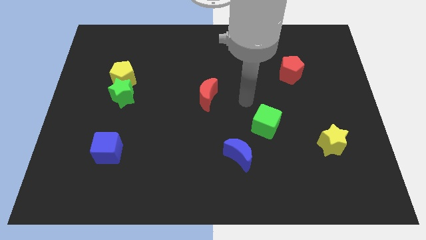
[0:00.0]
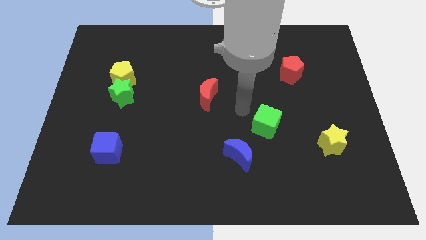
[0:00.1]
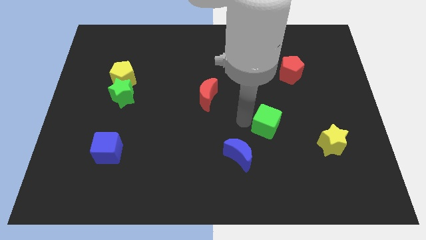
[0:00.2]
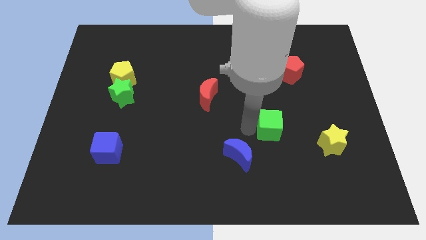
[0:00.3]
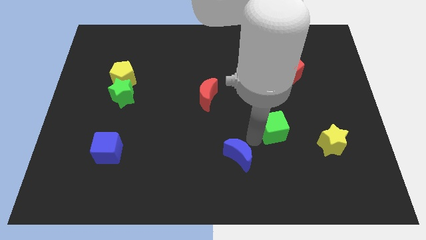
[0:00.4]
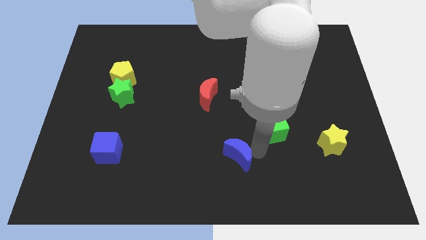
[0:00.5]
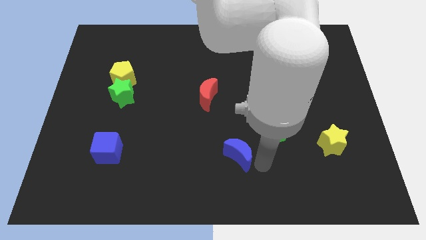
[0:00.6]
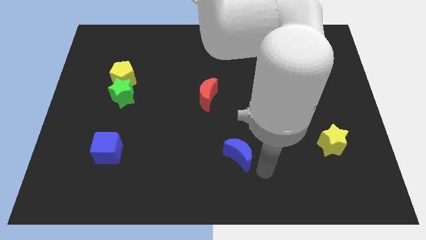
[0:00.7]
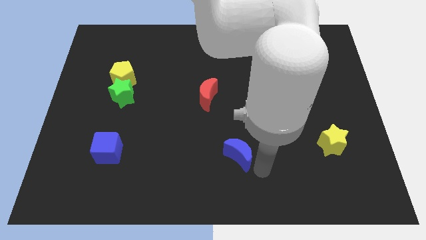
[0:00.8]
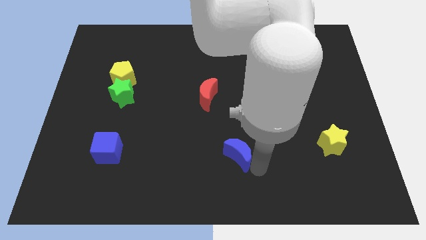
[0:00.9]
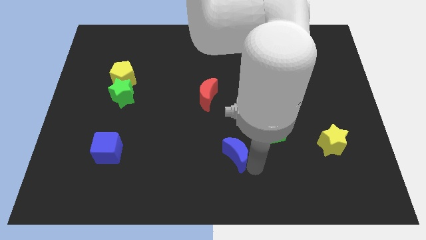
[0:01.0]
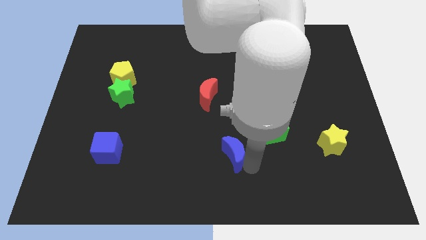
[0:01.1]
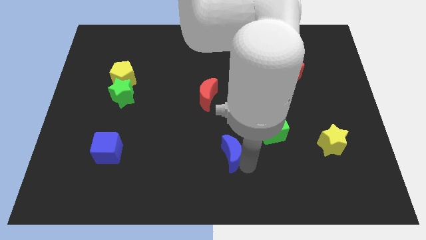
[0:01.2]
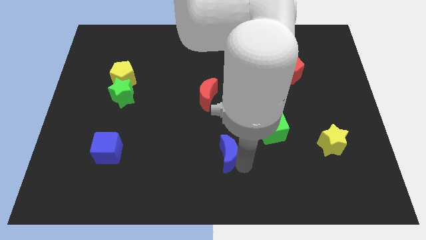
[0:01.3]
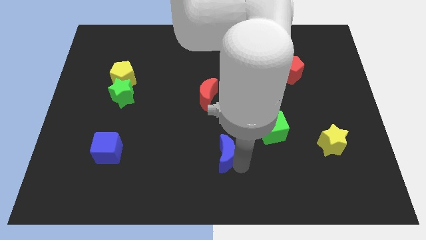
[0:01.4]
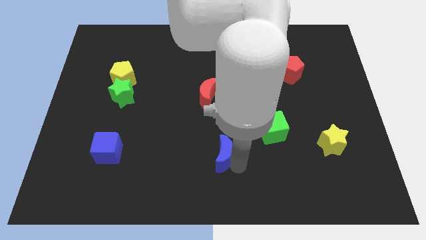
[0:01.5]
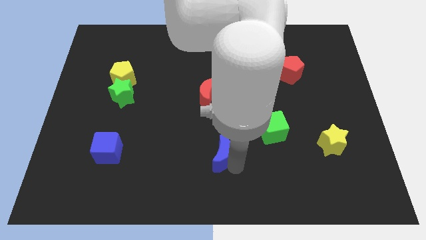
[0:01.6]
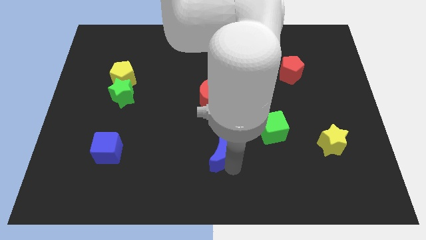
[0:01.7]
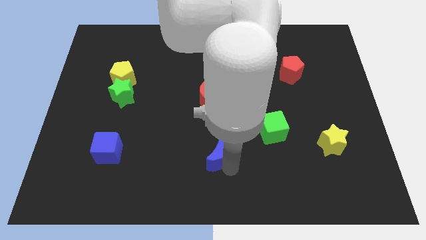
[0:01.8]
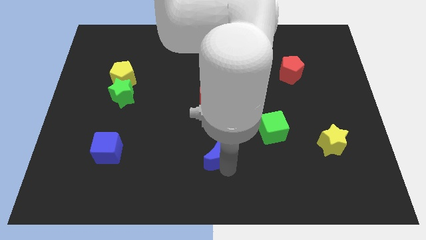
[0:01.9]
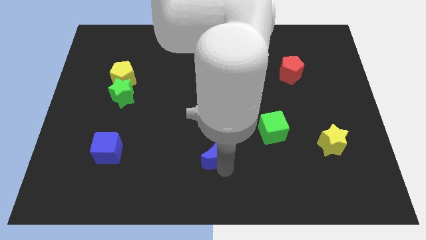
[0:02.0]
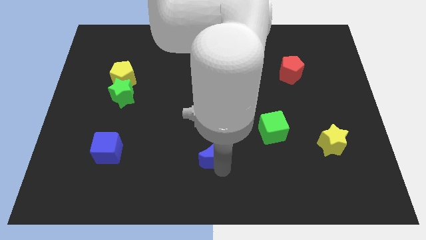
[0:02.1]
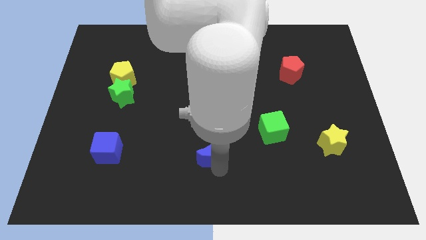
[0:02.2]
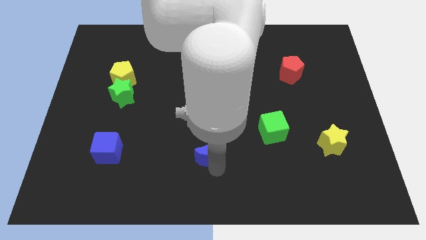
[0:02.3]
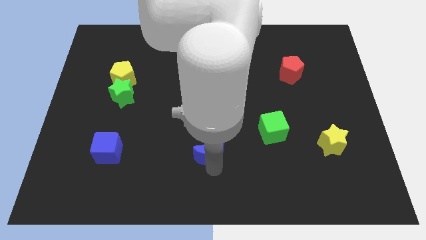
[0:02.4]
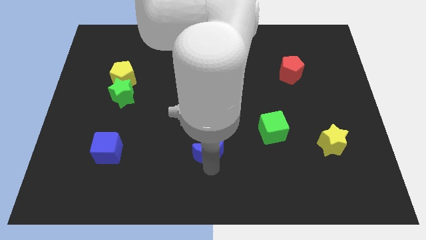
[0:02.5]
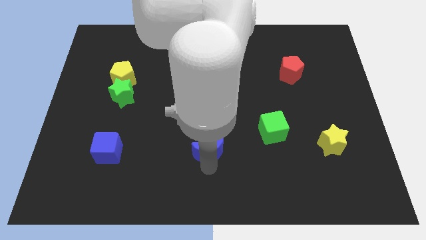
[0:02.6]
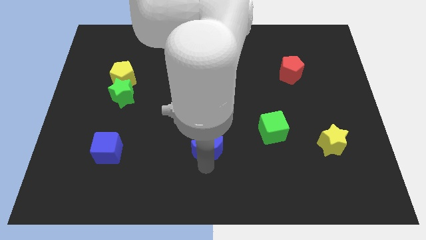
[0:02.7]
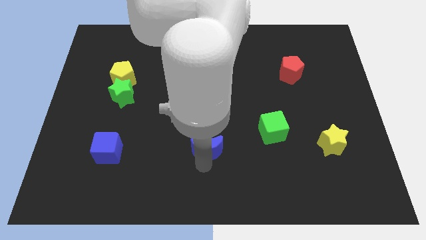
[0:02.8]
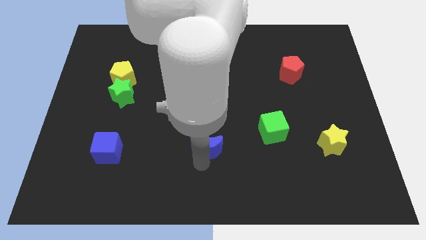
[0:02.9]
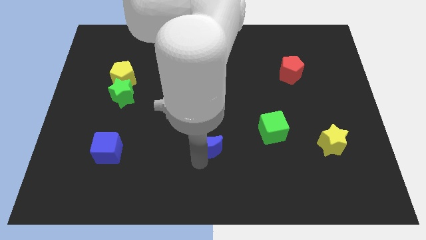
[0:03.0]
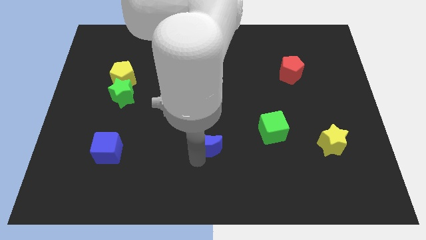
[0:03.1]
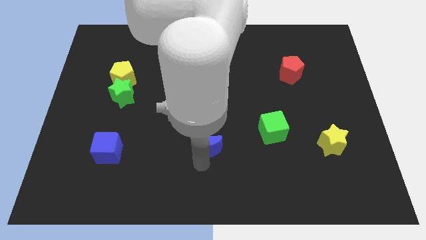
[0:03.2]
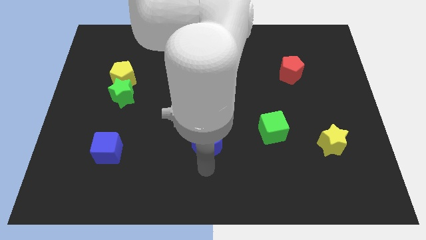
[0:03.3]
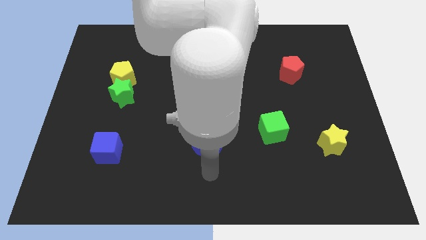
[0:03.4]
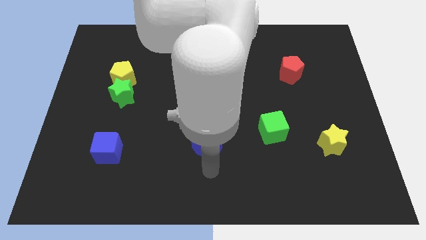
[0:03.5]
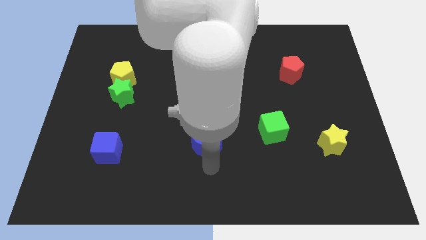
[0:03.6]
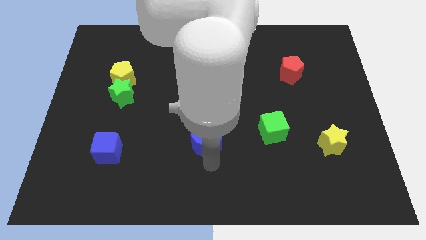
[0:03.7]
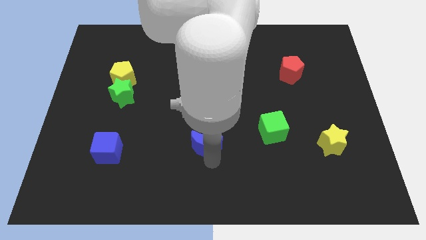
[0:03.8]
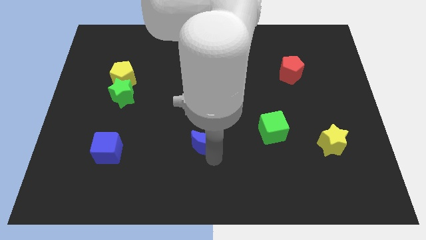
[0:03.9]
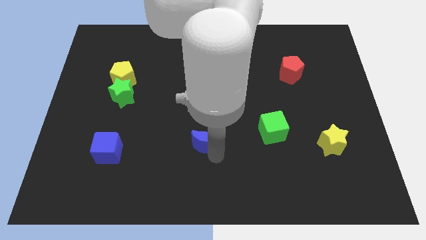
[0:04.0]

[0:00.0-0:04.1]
slide the blue moon a little bit diagonally upwards and left

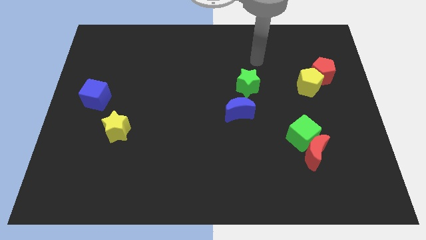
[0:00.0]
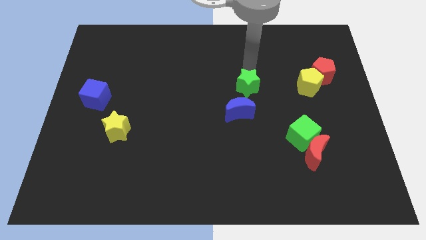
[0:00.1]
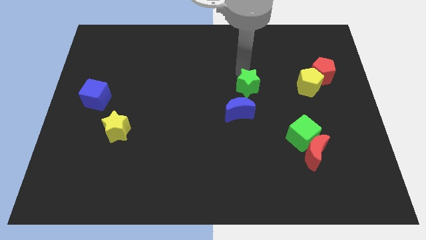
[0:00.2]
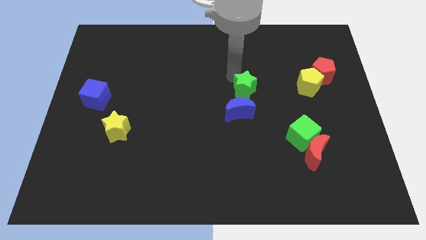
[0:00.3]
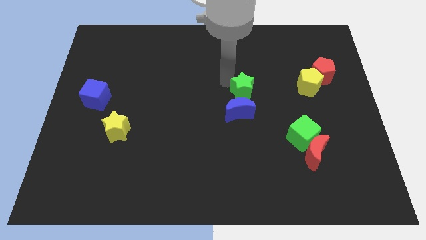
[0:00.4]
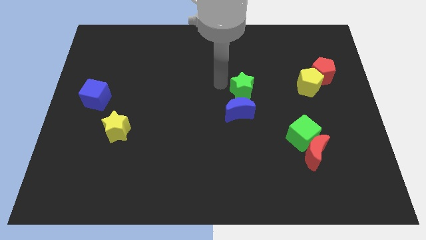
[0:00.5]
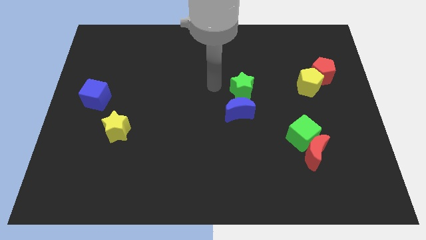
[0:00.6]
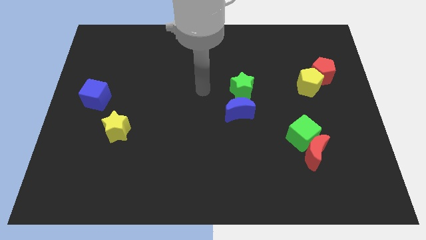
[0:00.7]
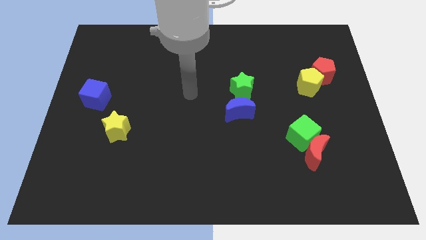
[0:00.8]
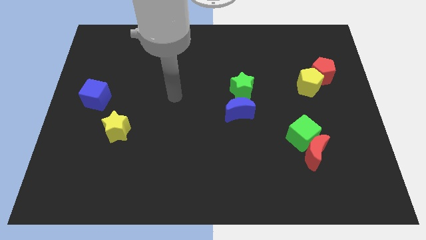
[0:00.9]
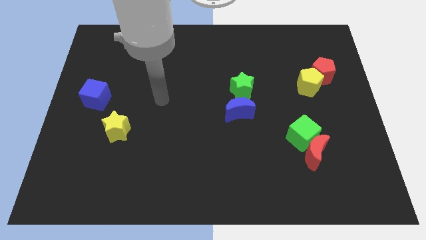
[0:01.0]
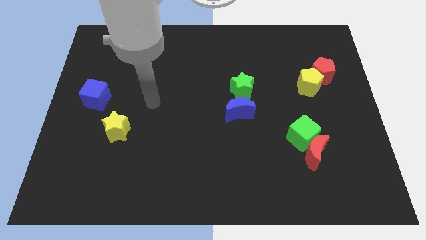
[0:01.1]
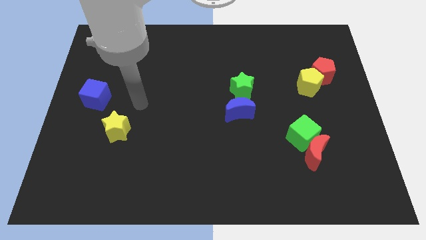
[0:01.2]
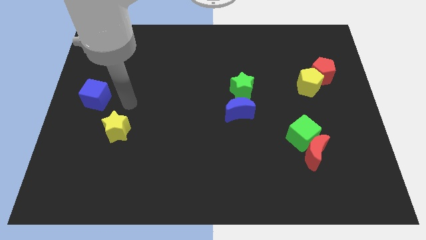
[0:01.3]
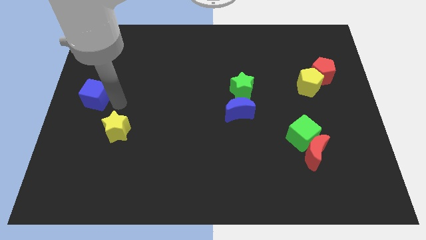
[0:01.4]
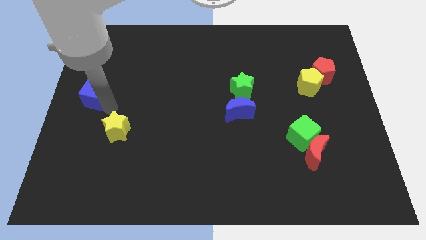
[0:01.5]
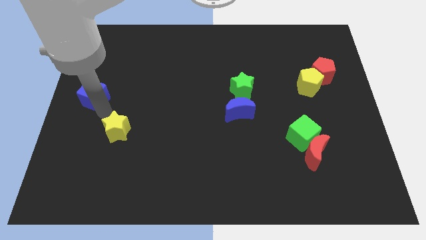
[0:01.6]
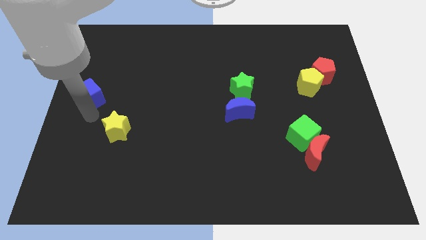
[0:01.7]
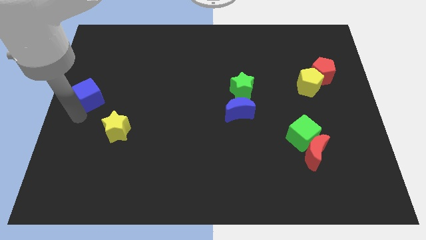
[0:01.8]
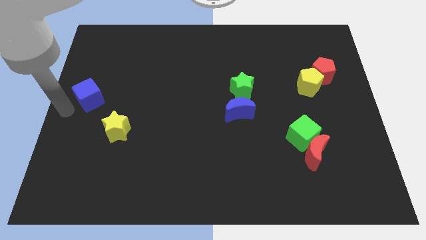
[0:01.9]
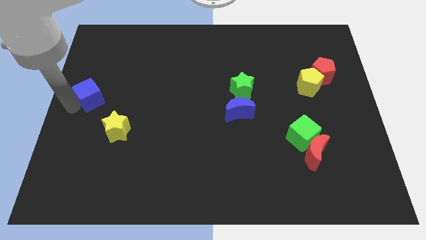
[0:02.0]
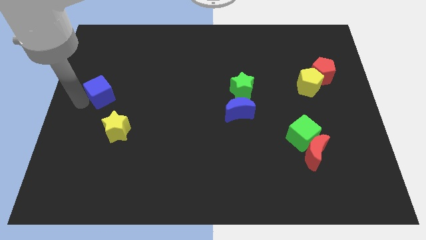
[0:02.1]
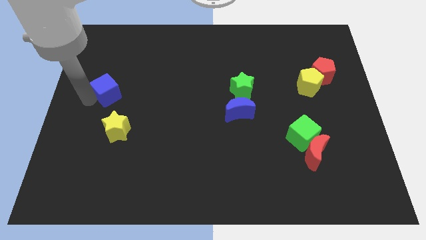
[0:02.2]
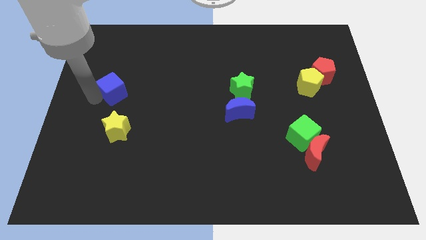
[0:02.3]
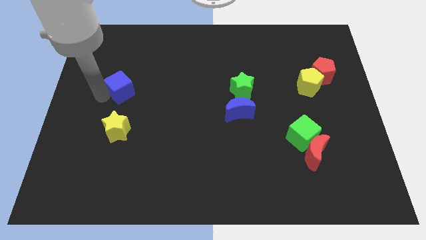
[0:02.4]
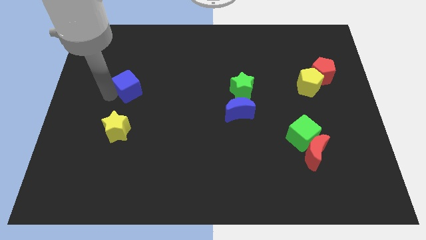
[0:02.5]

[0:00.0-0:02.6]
move the blue cube a bit diagonally up and right

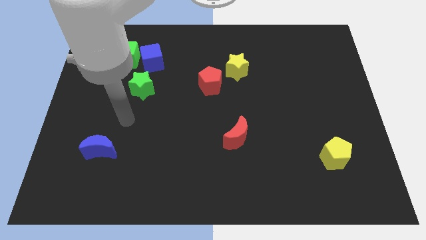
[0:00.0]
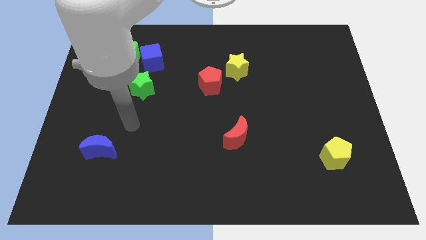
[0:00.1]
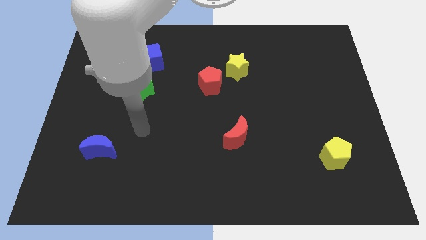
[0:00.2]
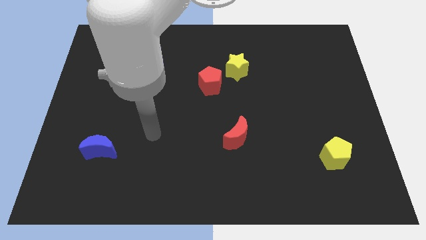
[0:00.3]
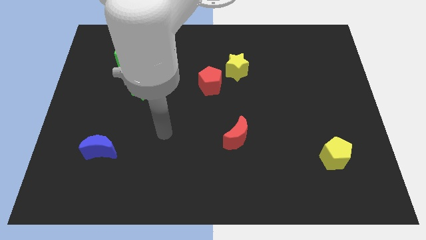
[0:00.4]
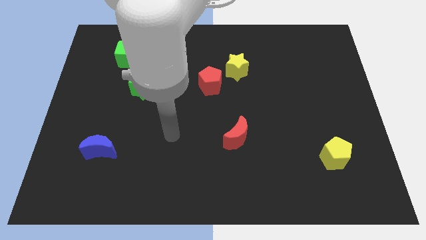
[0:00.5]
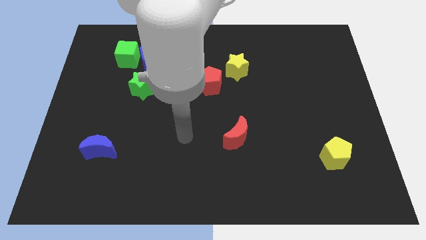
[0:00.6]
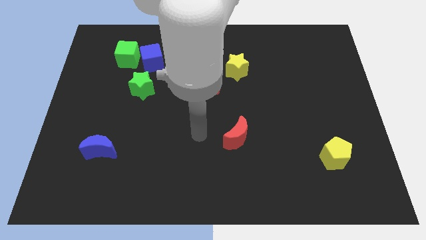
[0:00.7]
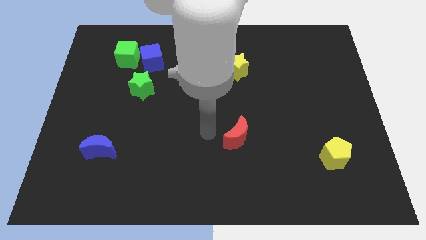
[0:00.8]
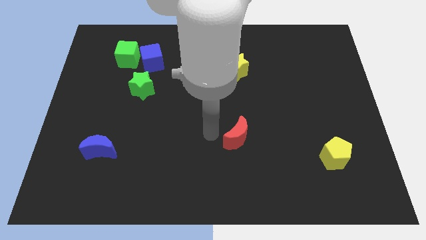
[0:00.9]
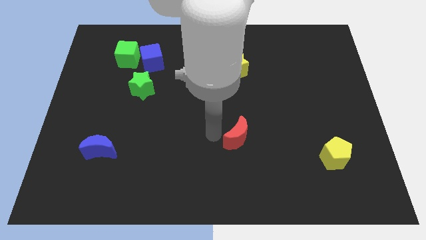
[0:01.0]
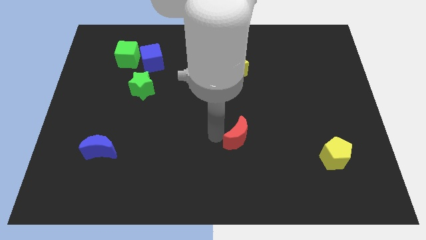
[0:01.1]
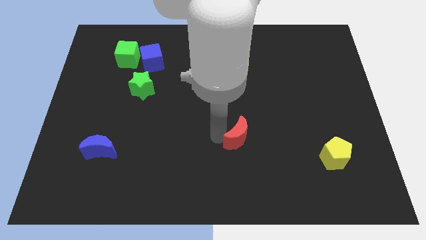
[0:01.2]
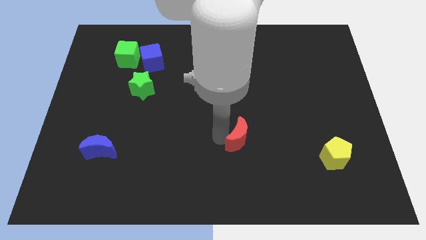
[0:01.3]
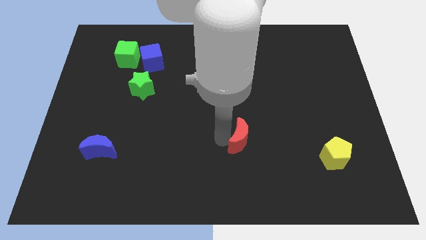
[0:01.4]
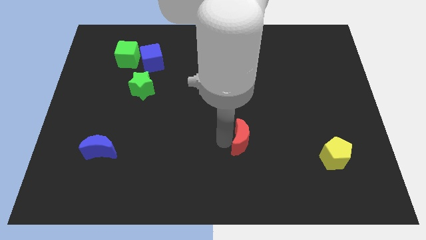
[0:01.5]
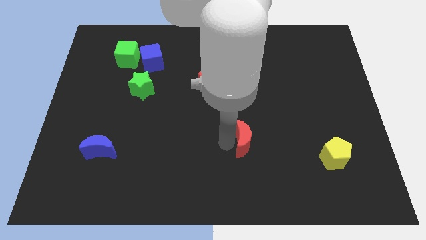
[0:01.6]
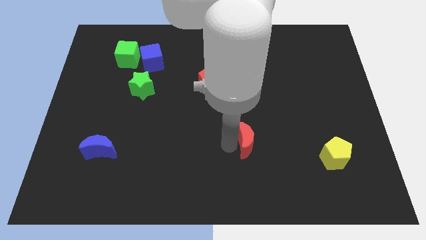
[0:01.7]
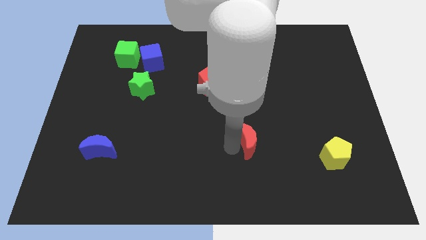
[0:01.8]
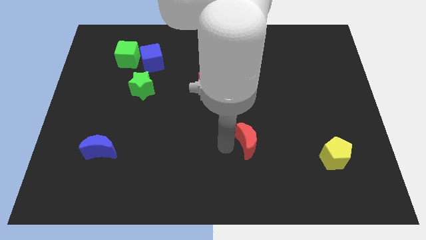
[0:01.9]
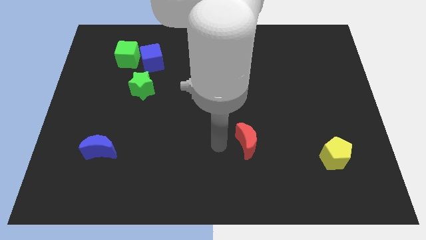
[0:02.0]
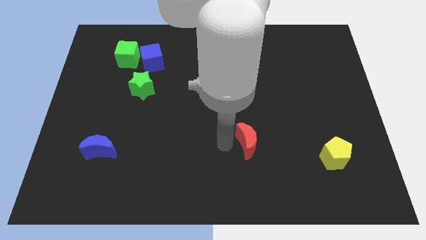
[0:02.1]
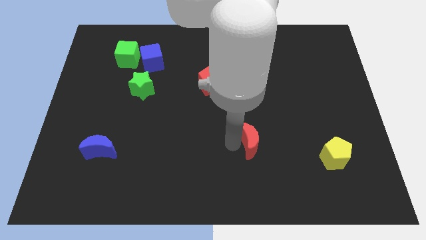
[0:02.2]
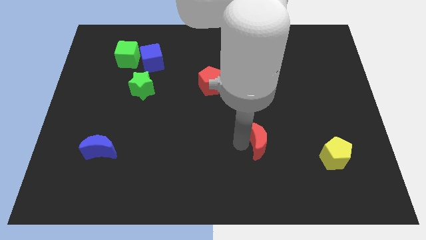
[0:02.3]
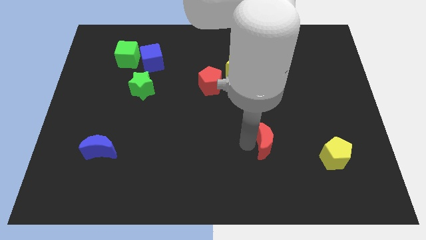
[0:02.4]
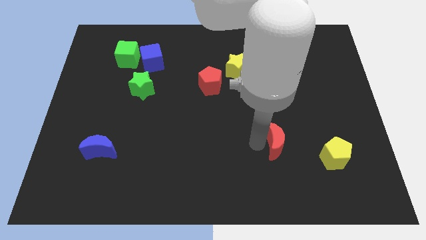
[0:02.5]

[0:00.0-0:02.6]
slightly move the red moon to the right
